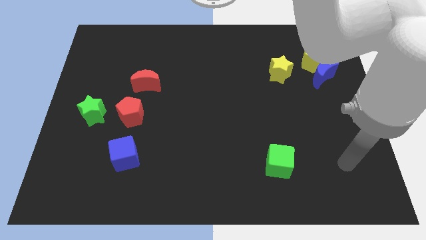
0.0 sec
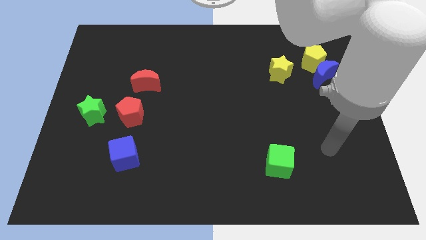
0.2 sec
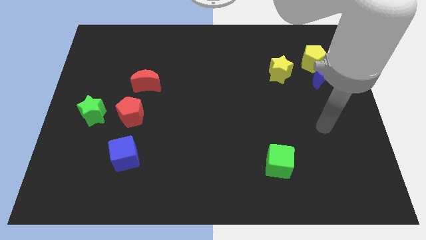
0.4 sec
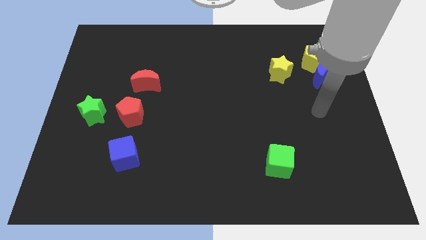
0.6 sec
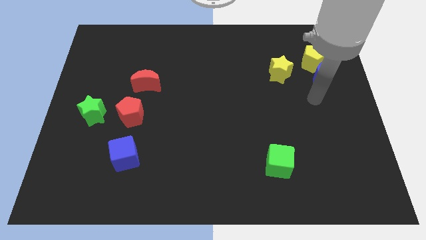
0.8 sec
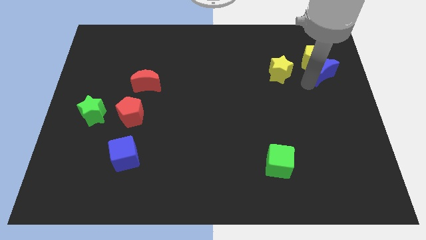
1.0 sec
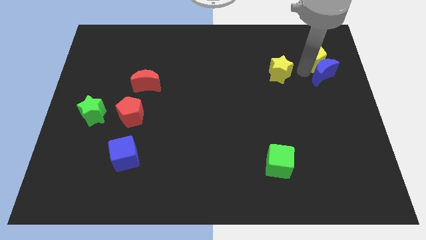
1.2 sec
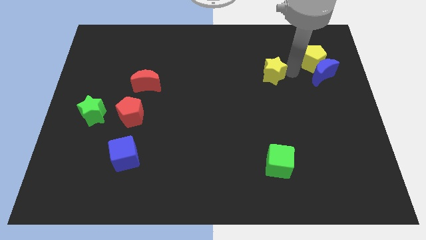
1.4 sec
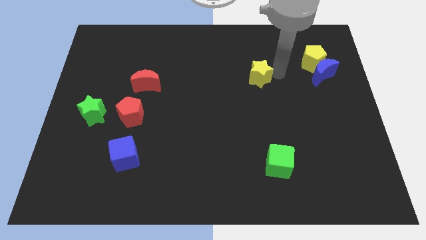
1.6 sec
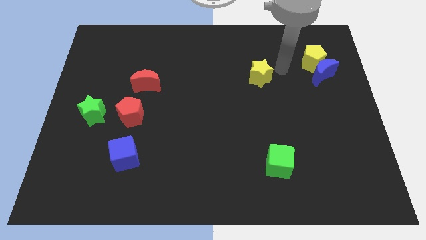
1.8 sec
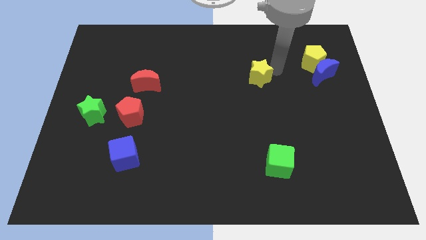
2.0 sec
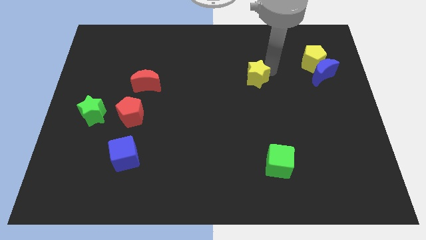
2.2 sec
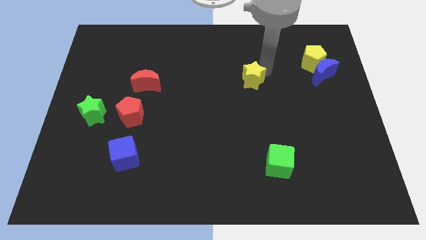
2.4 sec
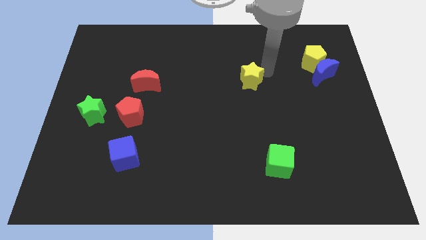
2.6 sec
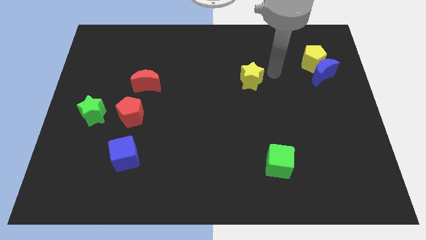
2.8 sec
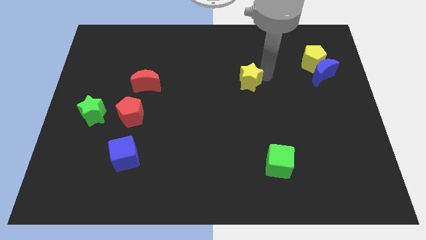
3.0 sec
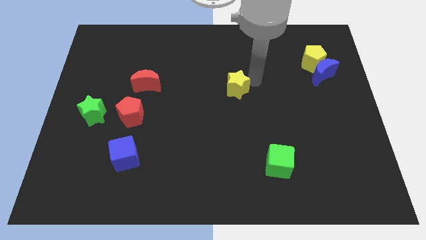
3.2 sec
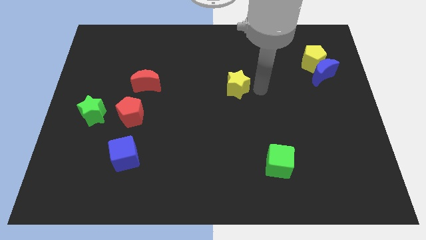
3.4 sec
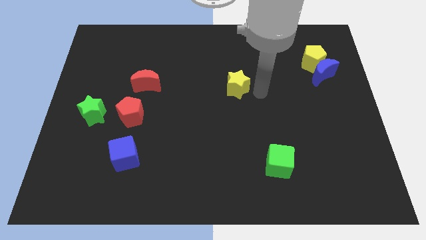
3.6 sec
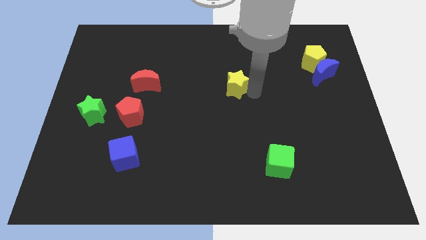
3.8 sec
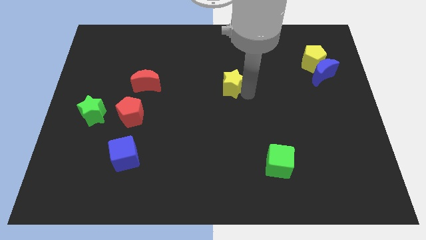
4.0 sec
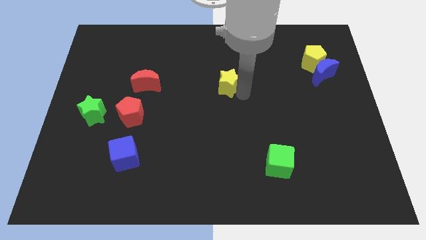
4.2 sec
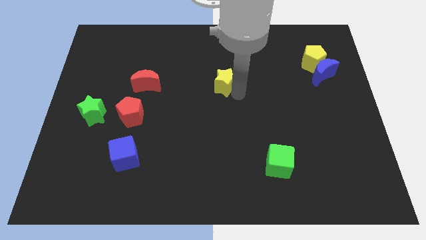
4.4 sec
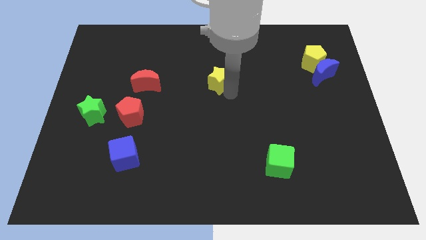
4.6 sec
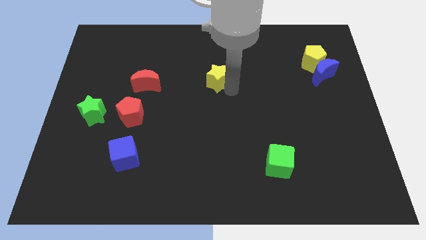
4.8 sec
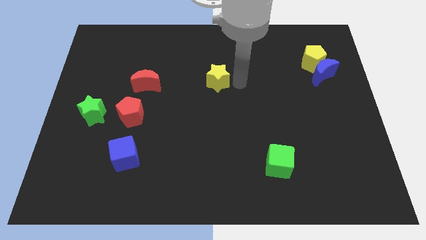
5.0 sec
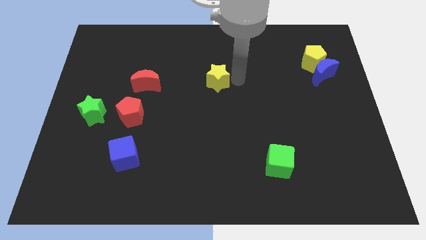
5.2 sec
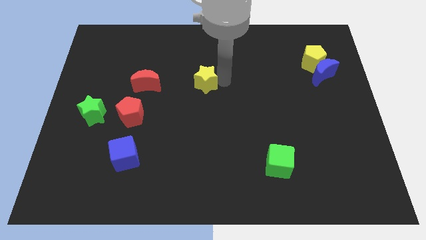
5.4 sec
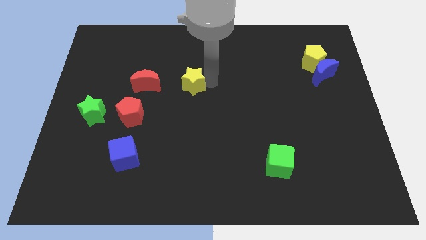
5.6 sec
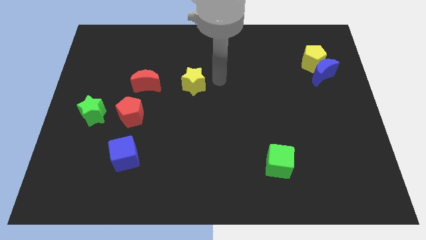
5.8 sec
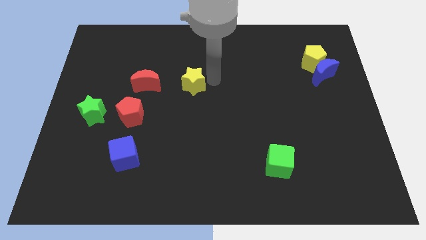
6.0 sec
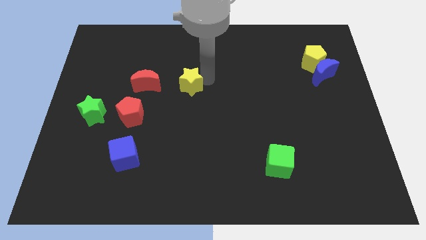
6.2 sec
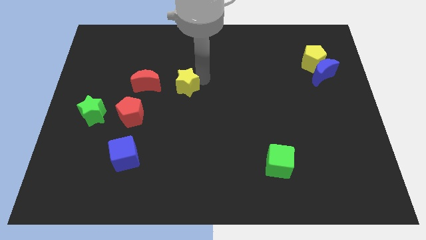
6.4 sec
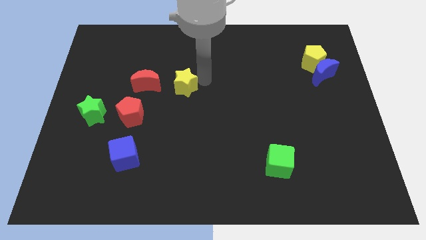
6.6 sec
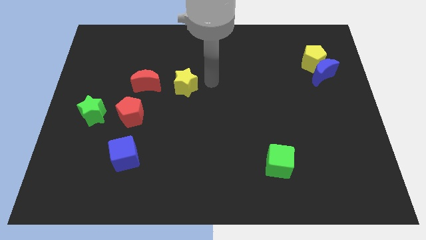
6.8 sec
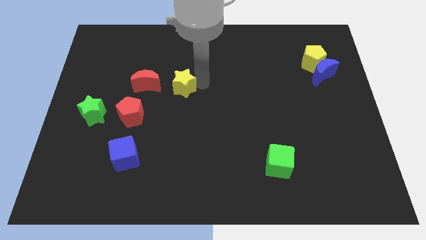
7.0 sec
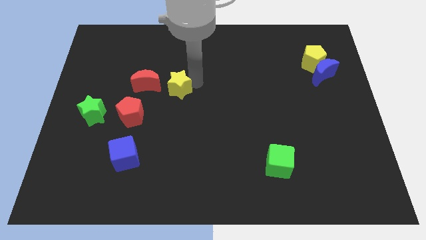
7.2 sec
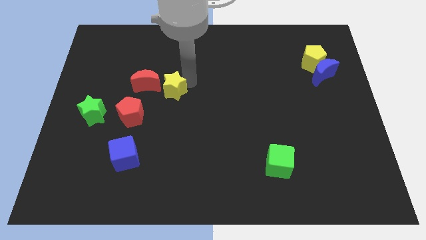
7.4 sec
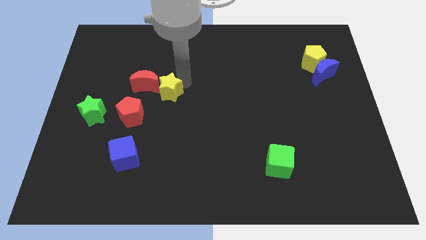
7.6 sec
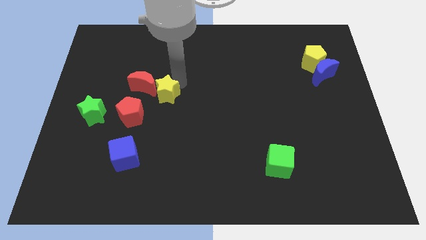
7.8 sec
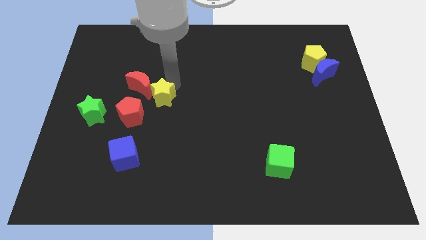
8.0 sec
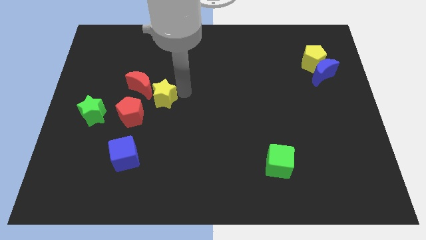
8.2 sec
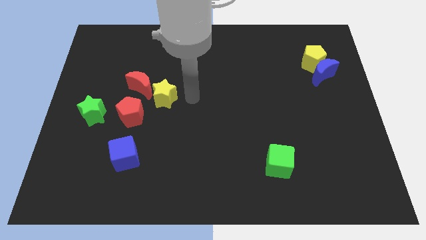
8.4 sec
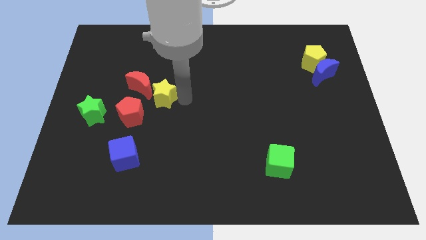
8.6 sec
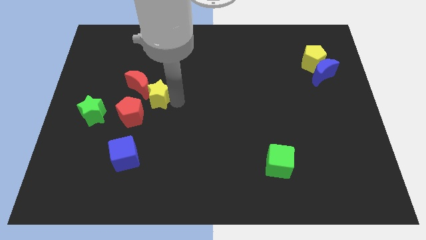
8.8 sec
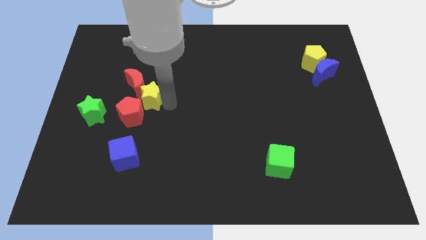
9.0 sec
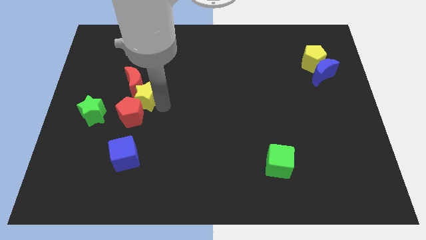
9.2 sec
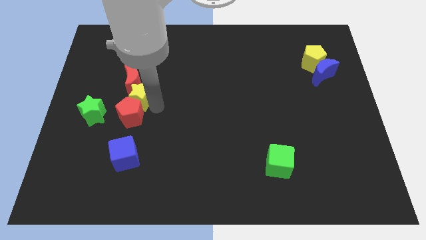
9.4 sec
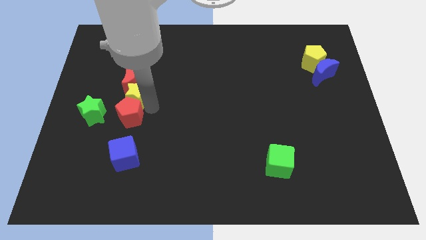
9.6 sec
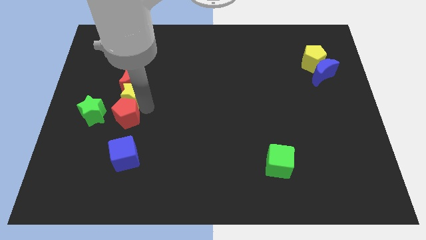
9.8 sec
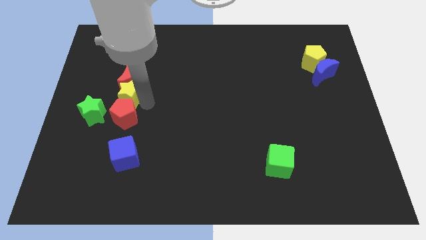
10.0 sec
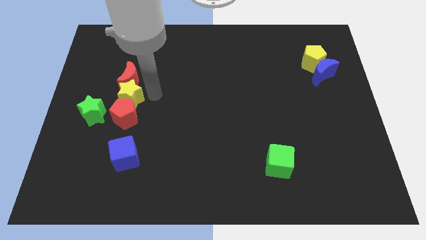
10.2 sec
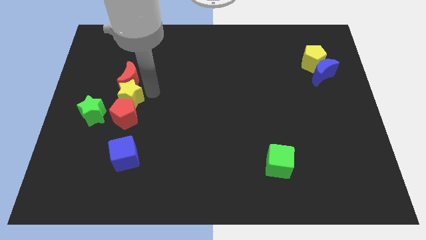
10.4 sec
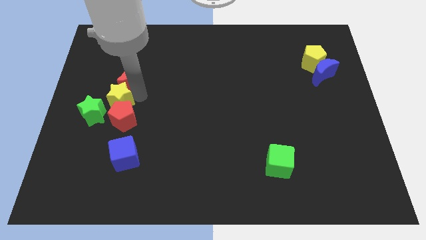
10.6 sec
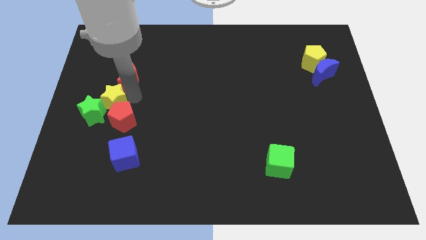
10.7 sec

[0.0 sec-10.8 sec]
put the yellow star to the green star

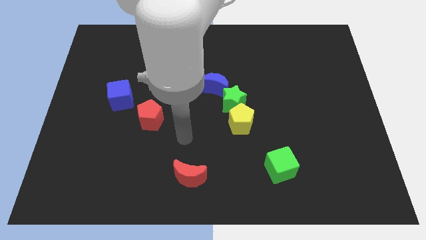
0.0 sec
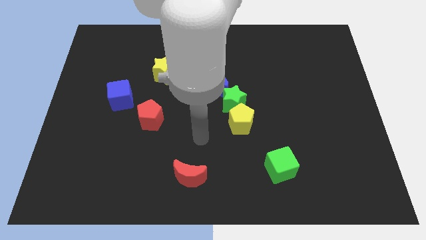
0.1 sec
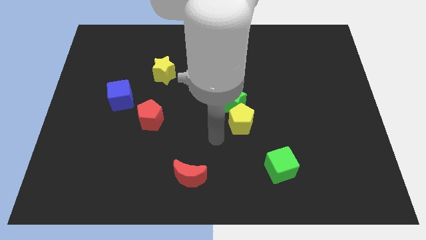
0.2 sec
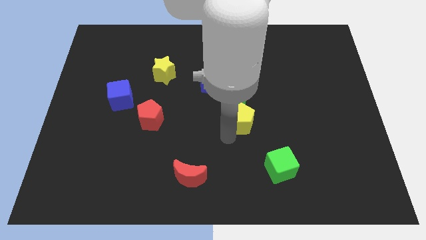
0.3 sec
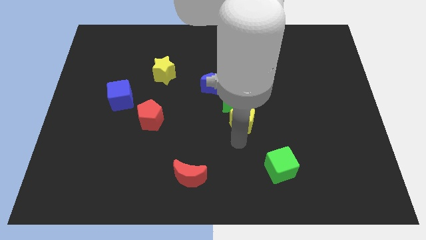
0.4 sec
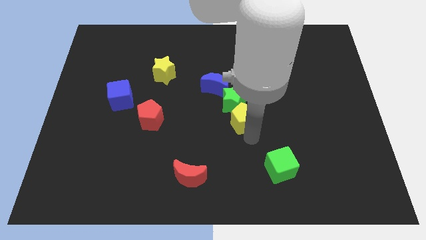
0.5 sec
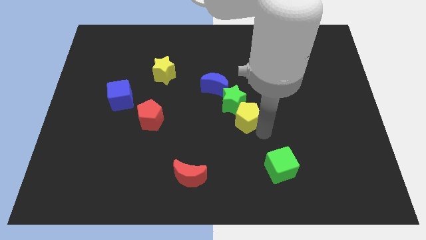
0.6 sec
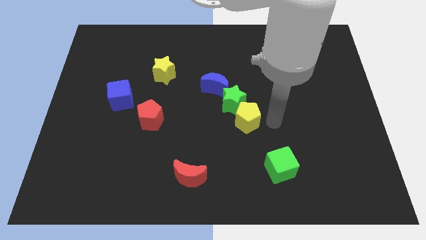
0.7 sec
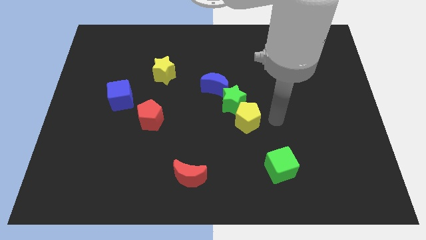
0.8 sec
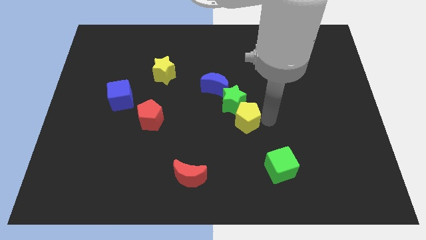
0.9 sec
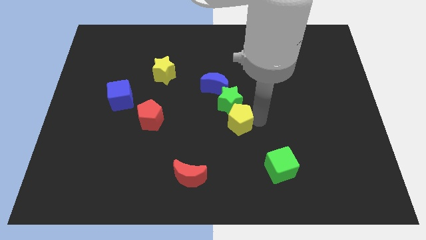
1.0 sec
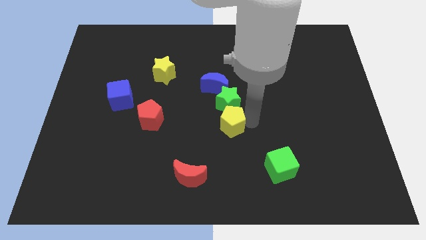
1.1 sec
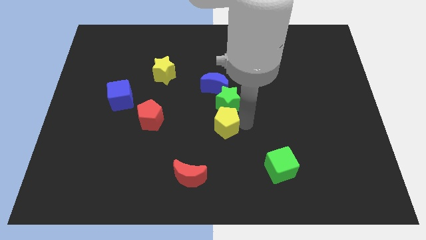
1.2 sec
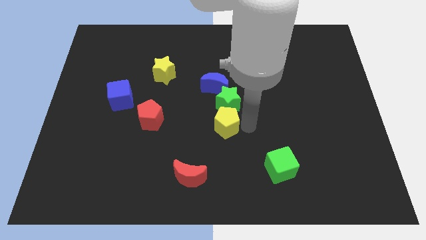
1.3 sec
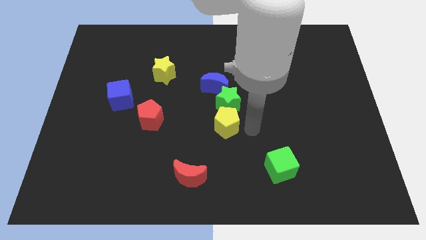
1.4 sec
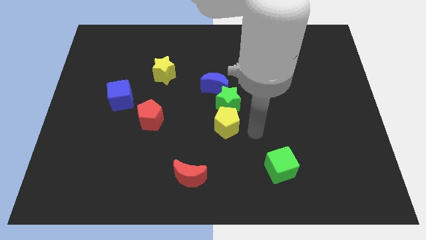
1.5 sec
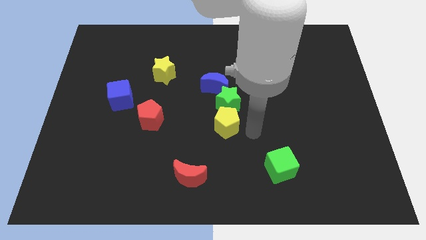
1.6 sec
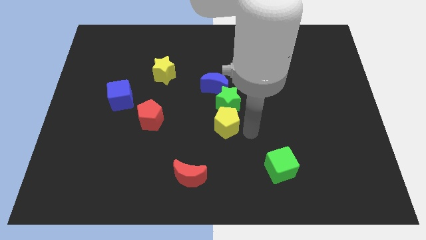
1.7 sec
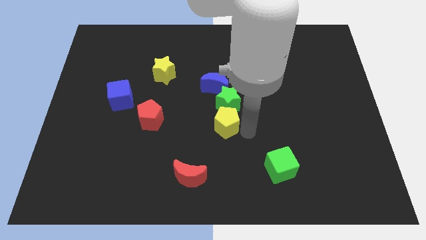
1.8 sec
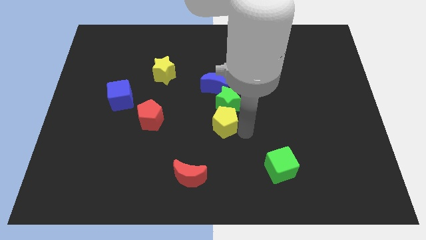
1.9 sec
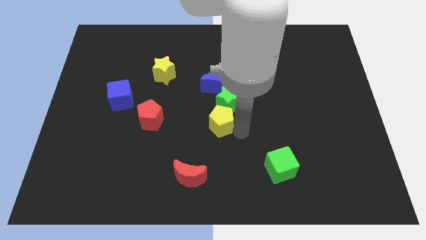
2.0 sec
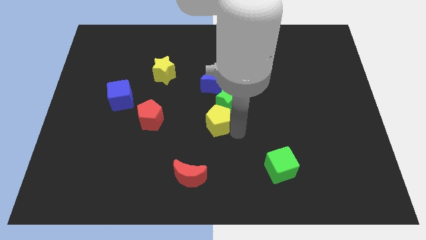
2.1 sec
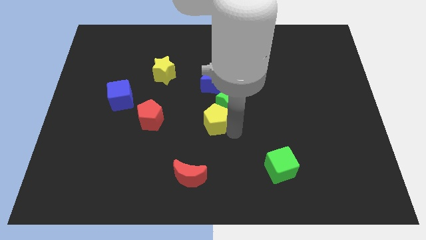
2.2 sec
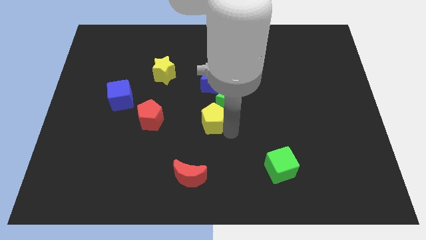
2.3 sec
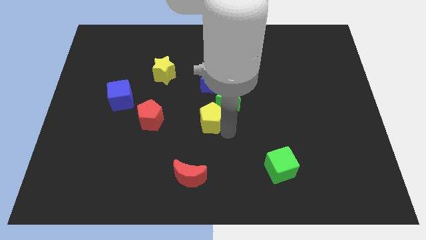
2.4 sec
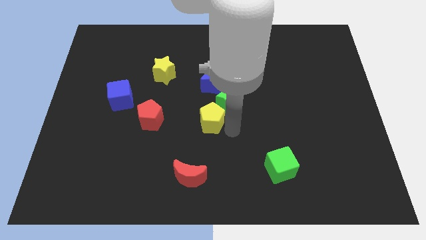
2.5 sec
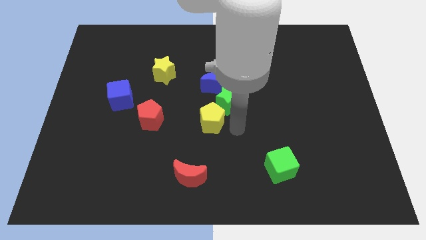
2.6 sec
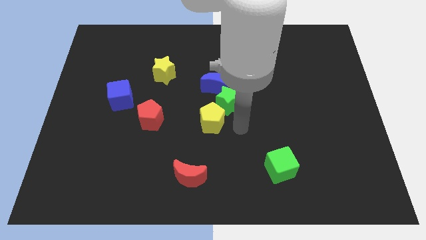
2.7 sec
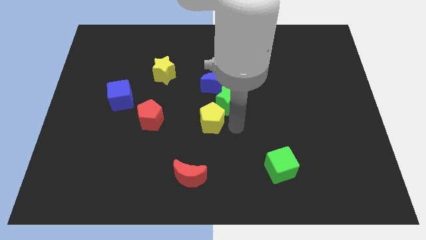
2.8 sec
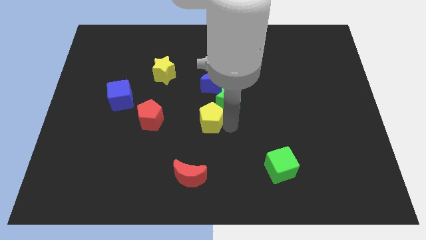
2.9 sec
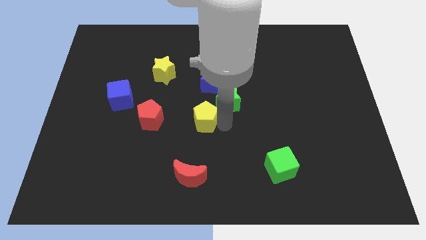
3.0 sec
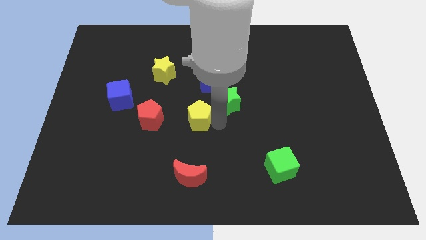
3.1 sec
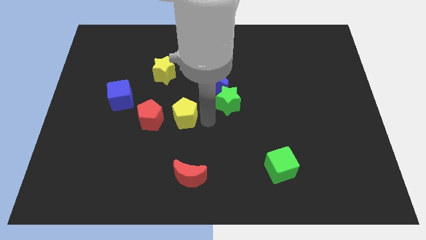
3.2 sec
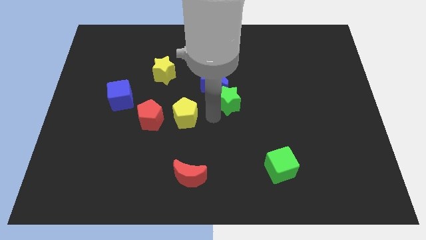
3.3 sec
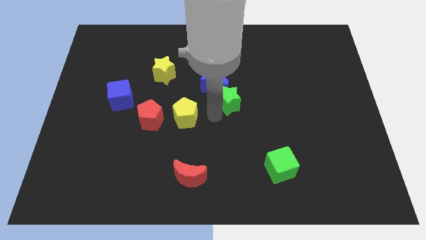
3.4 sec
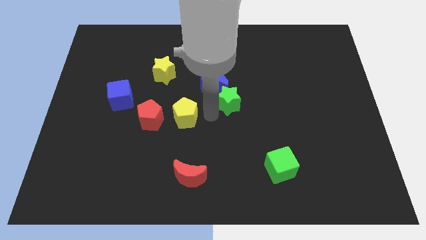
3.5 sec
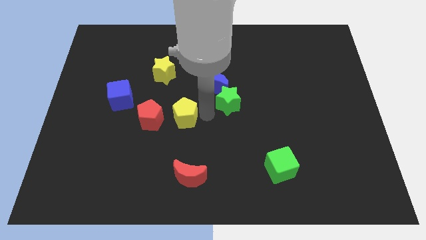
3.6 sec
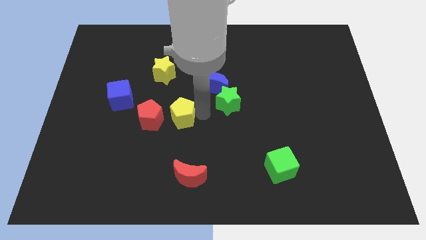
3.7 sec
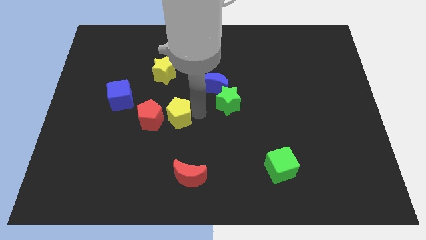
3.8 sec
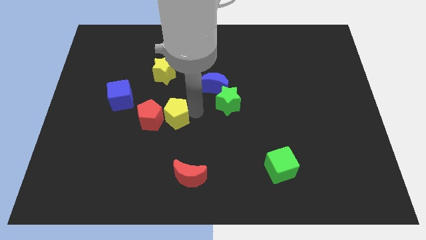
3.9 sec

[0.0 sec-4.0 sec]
put the yellow pentagon towards the red pentagon
